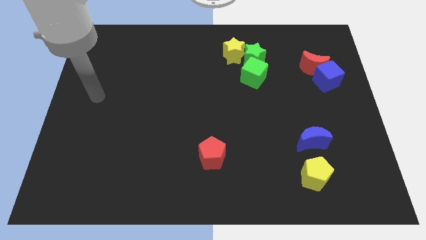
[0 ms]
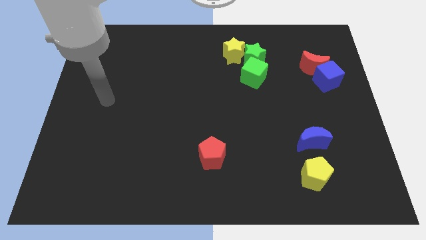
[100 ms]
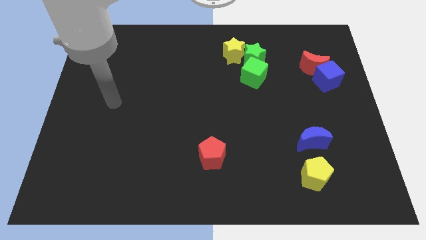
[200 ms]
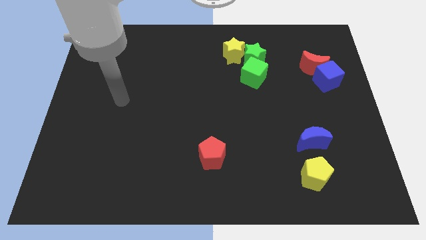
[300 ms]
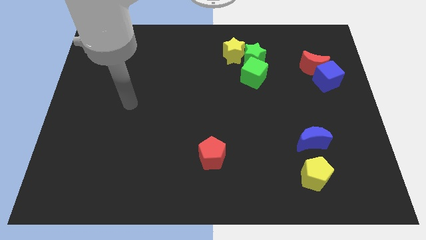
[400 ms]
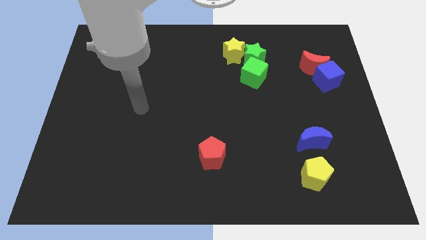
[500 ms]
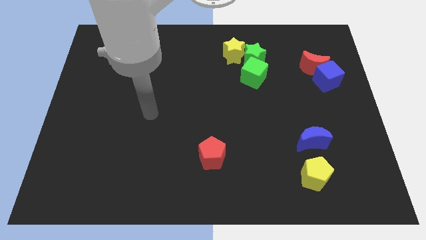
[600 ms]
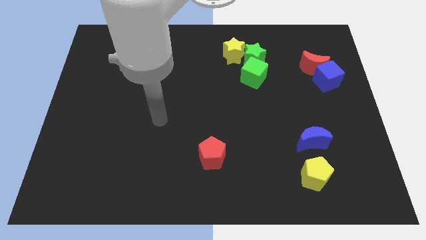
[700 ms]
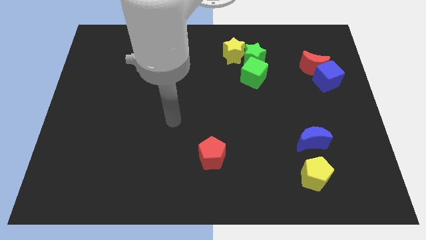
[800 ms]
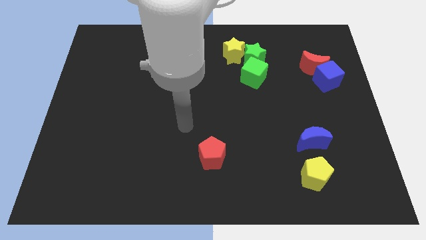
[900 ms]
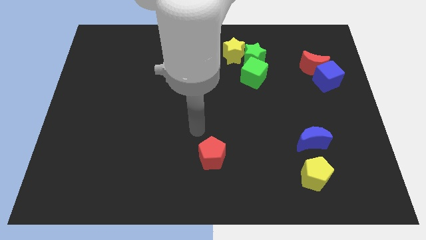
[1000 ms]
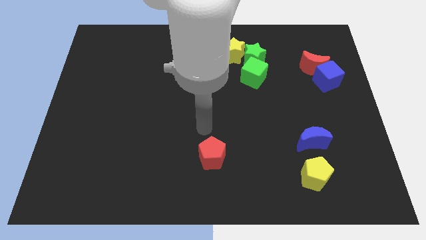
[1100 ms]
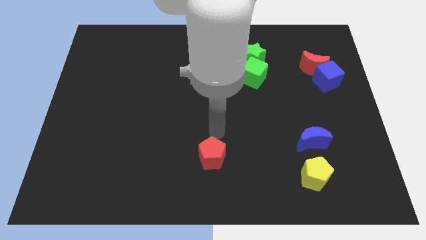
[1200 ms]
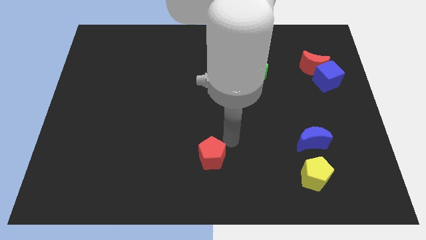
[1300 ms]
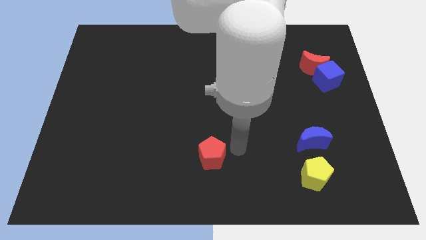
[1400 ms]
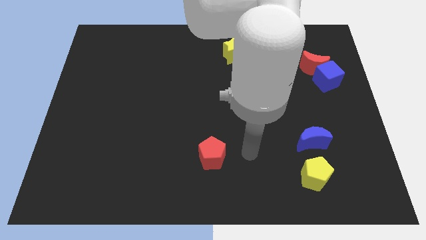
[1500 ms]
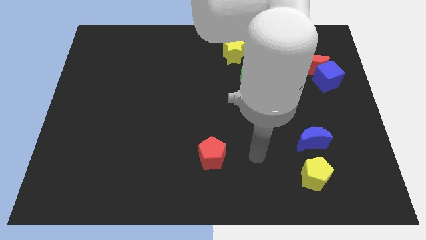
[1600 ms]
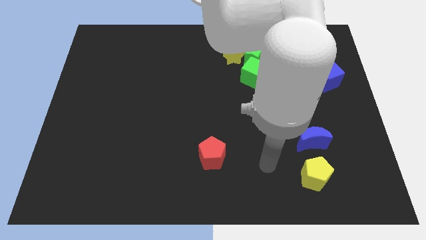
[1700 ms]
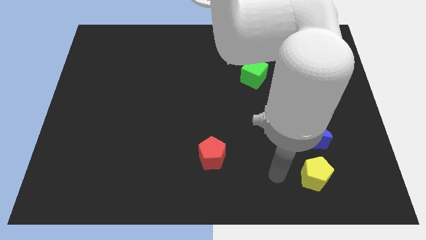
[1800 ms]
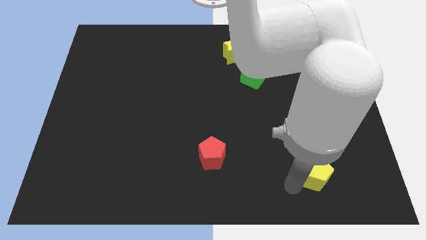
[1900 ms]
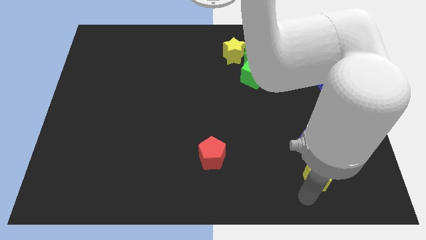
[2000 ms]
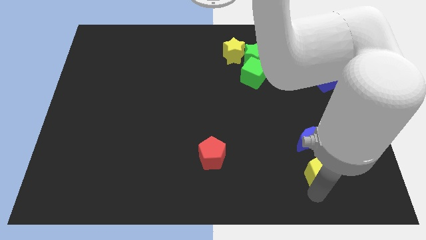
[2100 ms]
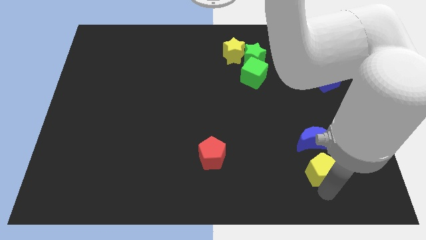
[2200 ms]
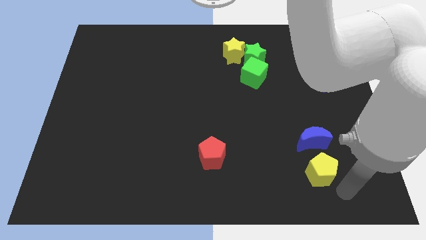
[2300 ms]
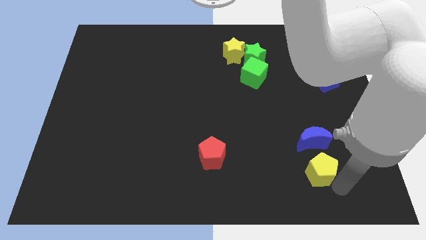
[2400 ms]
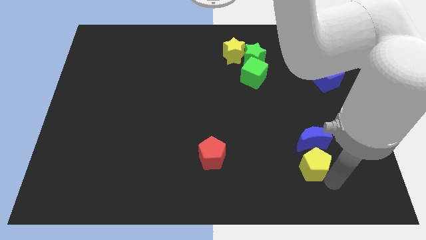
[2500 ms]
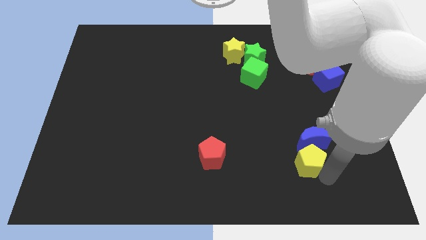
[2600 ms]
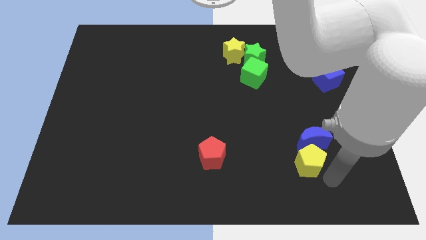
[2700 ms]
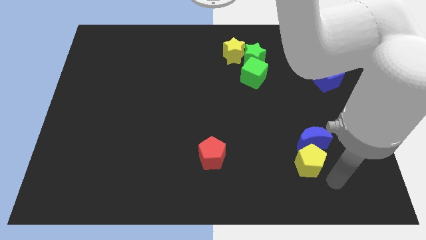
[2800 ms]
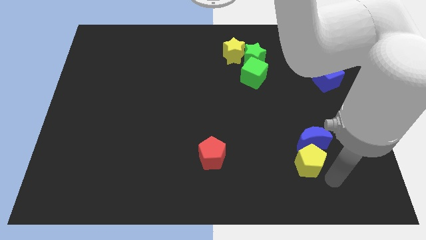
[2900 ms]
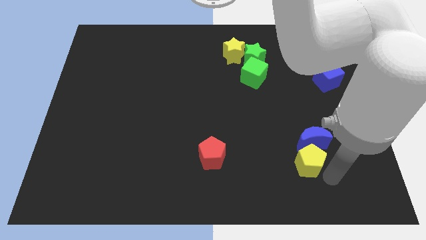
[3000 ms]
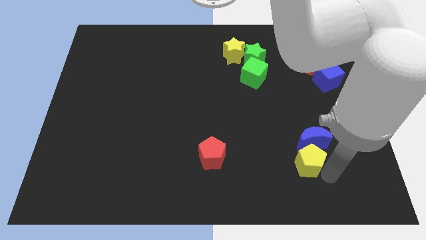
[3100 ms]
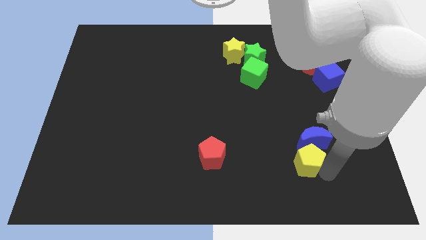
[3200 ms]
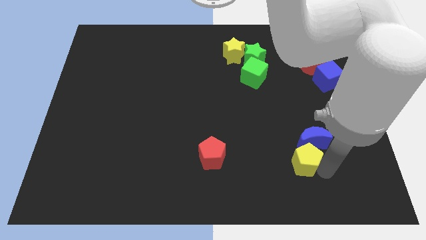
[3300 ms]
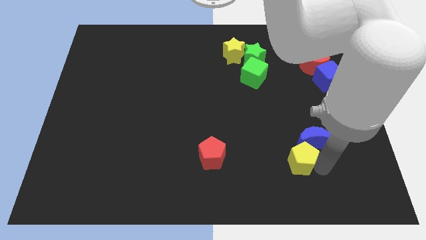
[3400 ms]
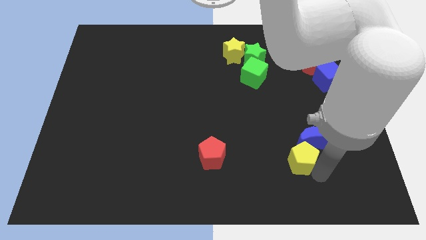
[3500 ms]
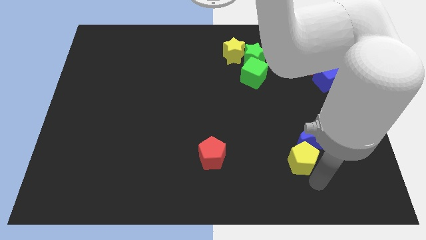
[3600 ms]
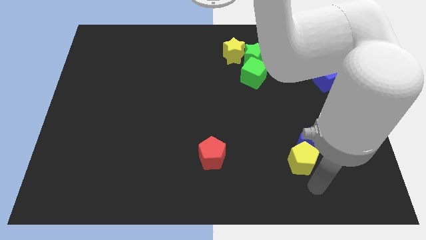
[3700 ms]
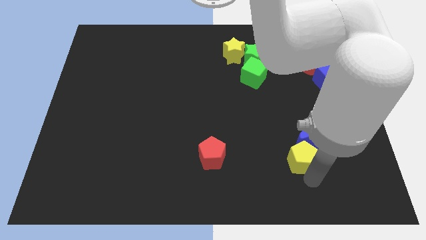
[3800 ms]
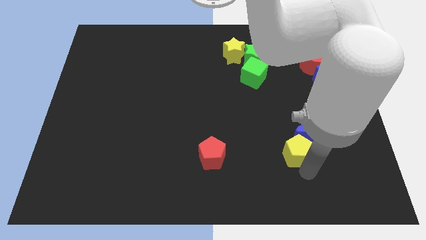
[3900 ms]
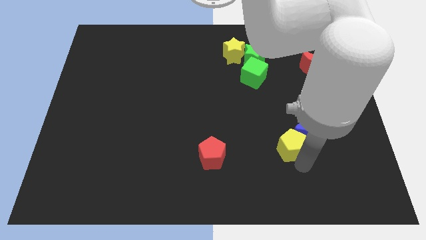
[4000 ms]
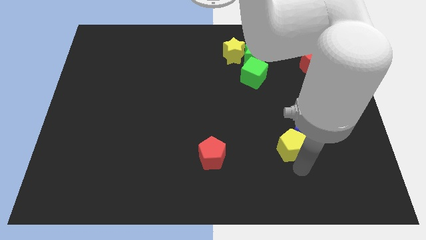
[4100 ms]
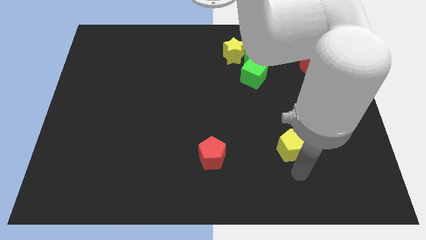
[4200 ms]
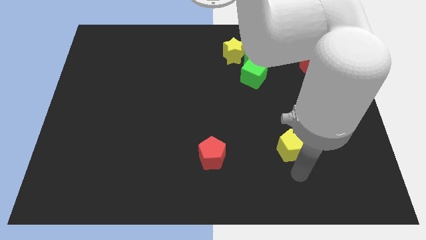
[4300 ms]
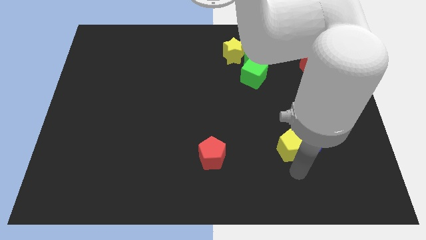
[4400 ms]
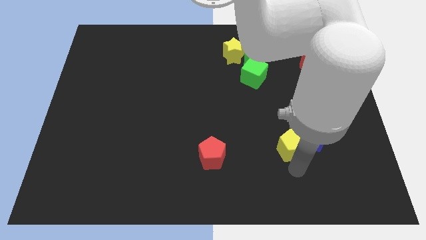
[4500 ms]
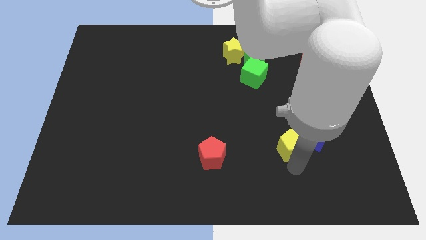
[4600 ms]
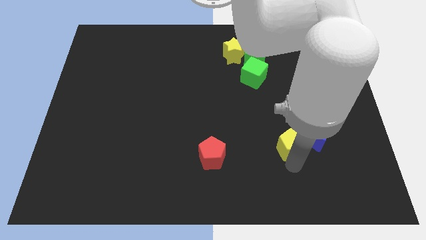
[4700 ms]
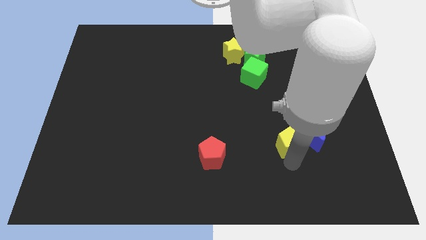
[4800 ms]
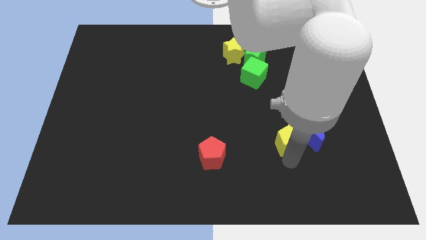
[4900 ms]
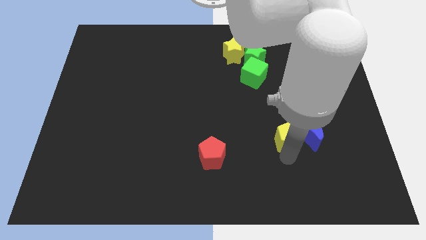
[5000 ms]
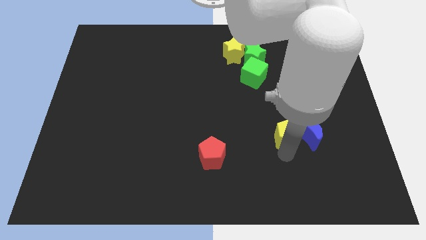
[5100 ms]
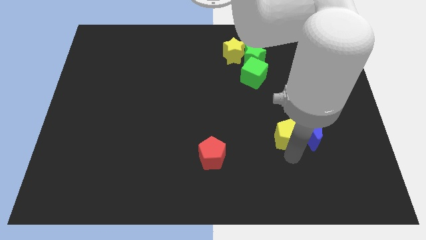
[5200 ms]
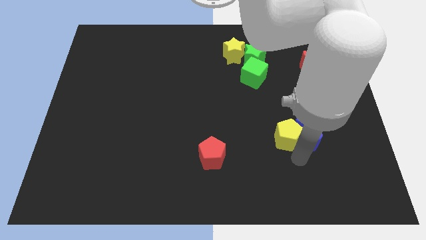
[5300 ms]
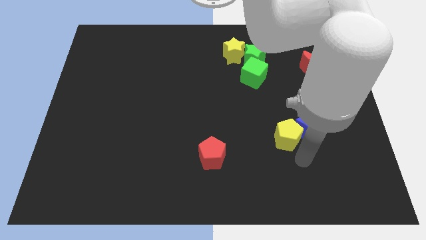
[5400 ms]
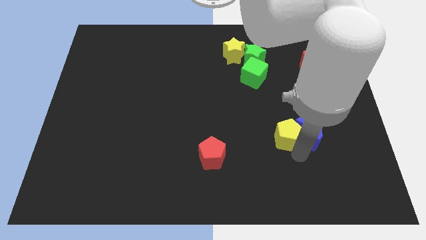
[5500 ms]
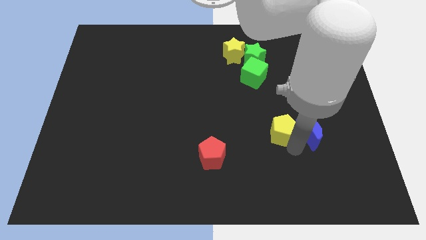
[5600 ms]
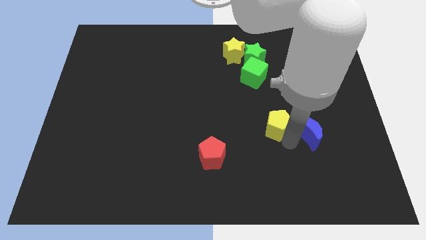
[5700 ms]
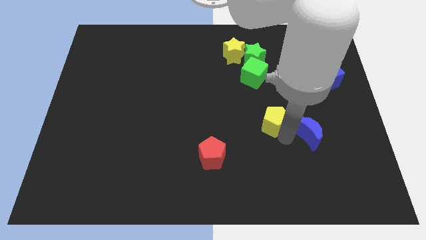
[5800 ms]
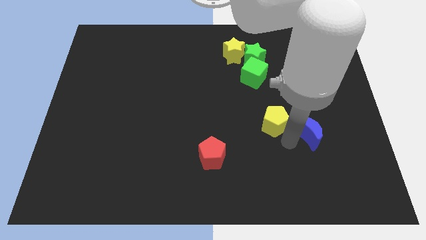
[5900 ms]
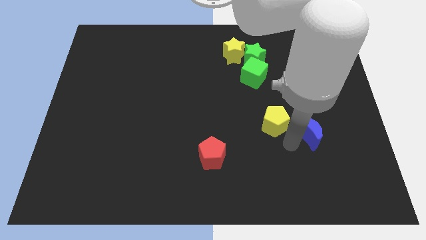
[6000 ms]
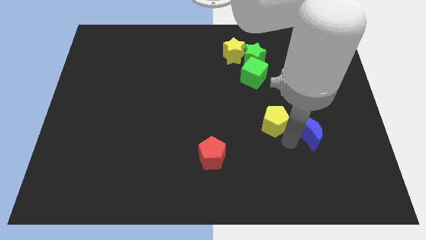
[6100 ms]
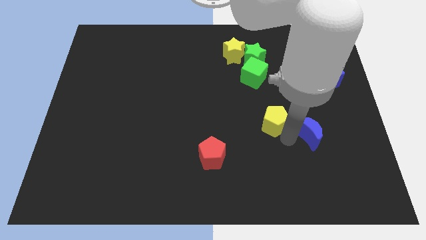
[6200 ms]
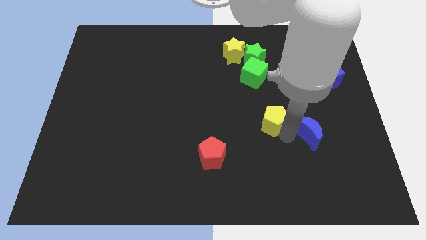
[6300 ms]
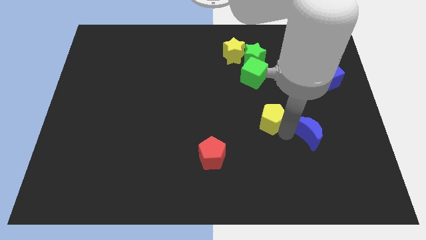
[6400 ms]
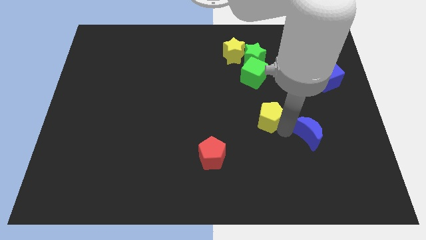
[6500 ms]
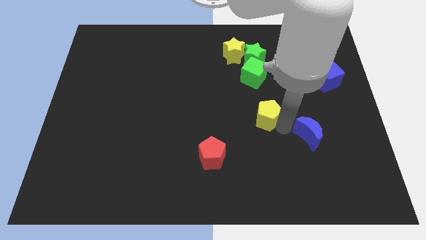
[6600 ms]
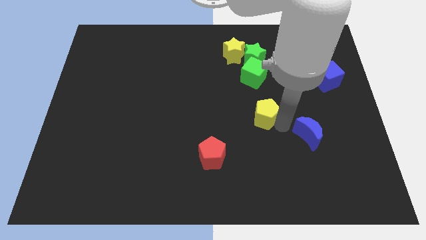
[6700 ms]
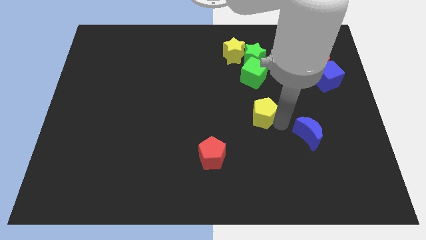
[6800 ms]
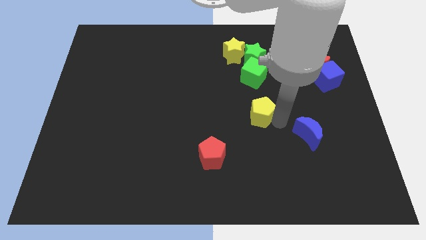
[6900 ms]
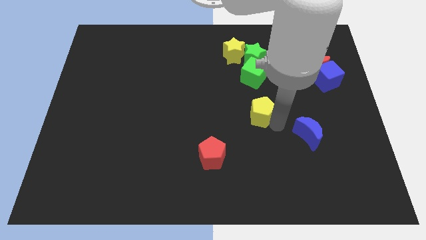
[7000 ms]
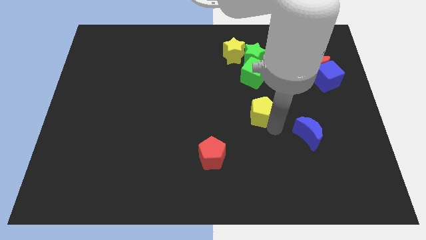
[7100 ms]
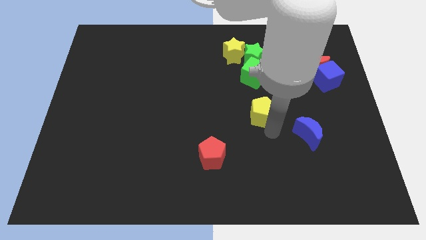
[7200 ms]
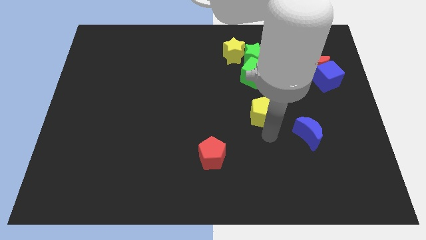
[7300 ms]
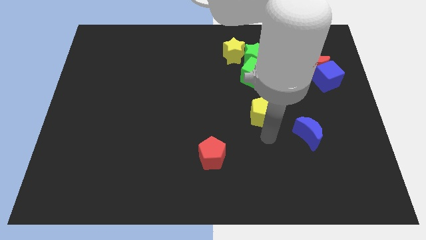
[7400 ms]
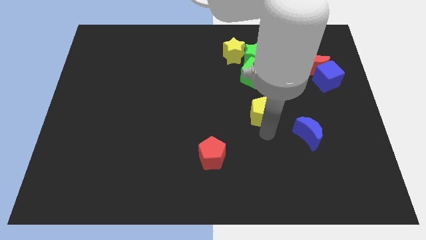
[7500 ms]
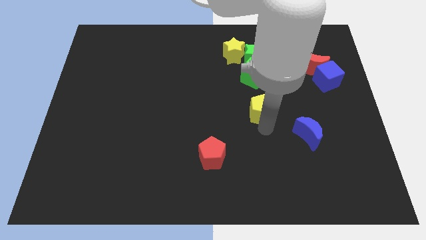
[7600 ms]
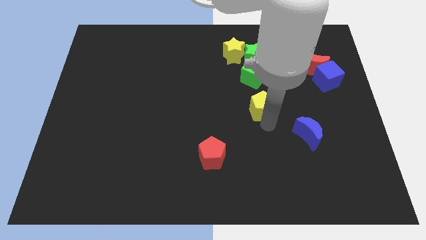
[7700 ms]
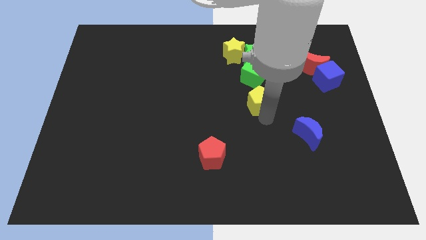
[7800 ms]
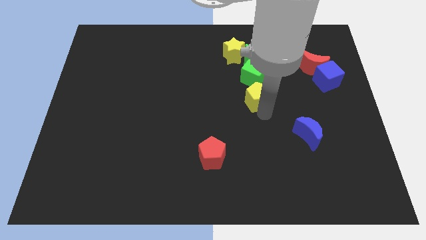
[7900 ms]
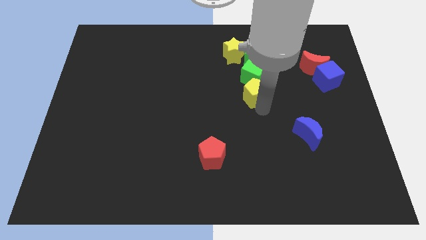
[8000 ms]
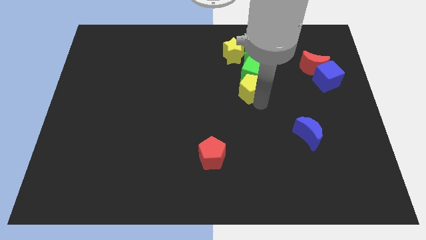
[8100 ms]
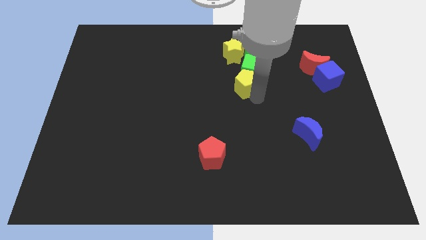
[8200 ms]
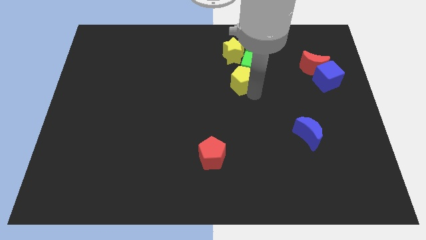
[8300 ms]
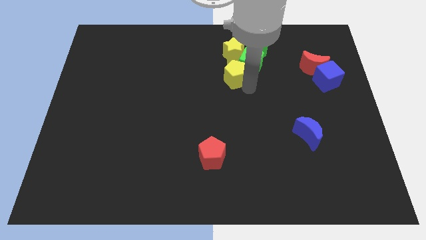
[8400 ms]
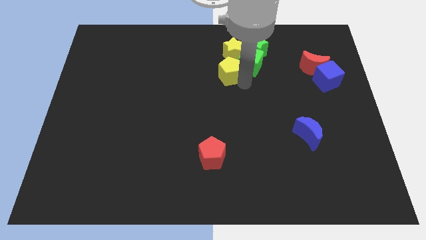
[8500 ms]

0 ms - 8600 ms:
slide the yellow pentagon to the bottom left of the yellow star

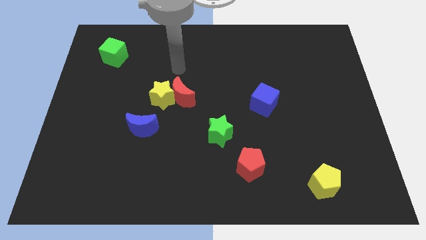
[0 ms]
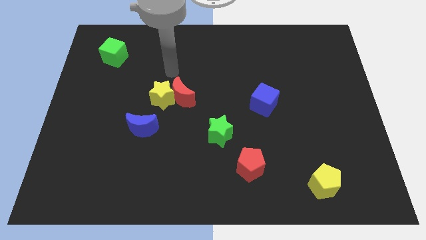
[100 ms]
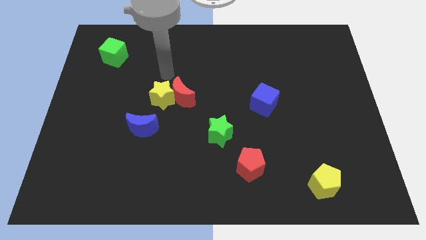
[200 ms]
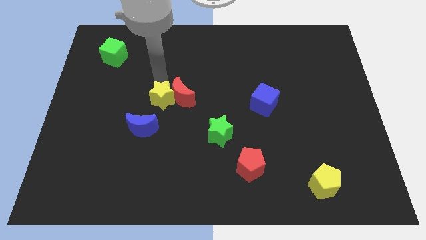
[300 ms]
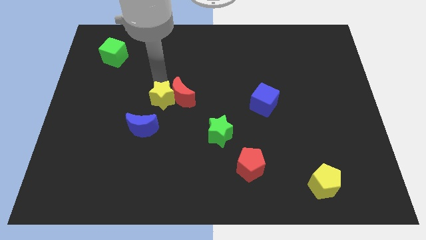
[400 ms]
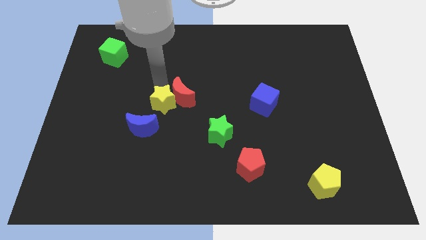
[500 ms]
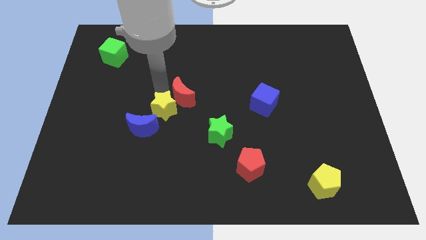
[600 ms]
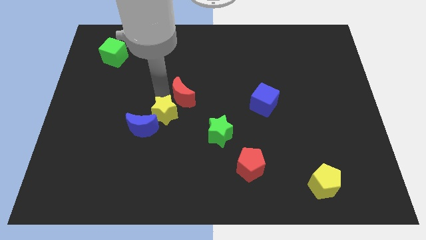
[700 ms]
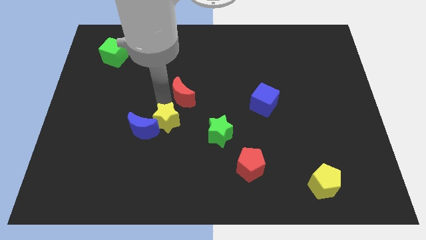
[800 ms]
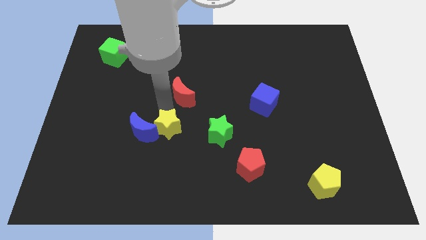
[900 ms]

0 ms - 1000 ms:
slide the yellow star to the bottom right of the blue moon
